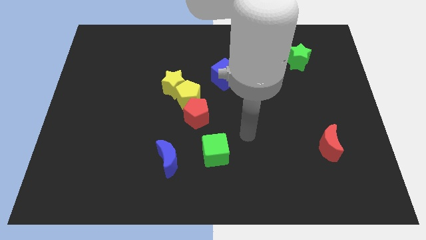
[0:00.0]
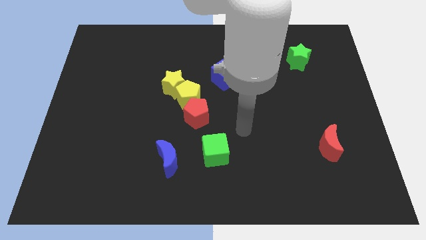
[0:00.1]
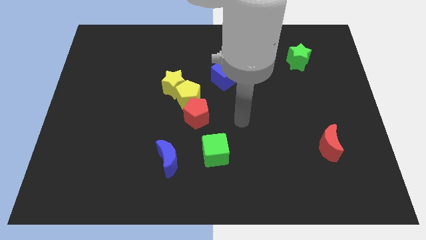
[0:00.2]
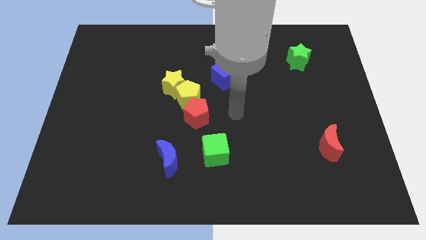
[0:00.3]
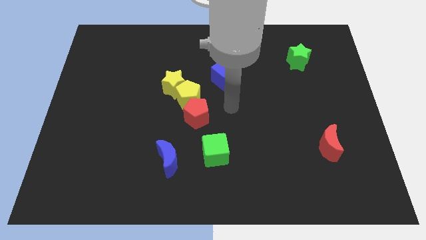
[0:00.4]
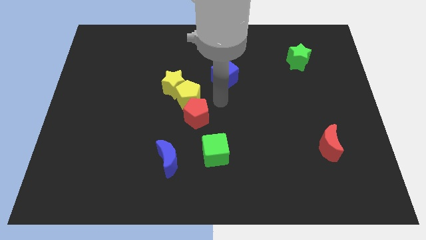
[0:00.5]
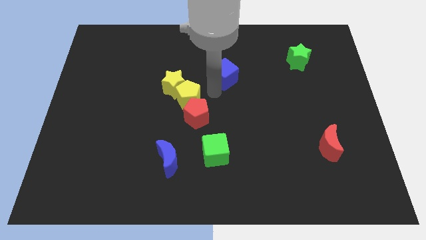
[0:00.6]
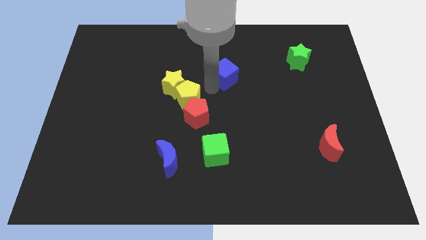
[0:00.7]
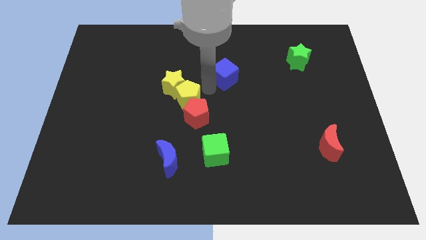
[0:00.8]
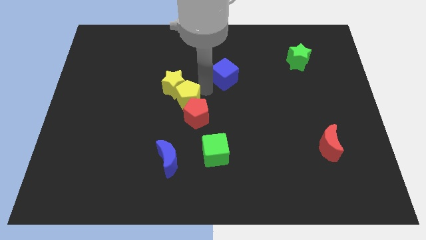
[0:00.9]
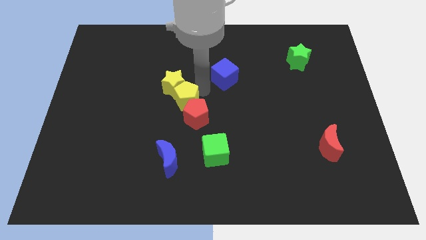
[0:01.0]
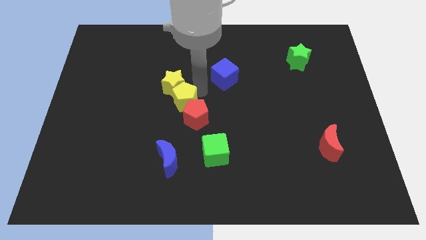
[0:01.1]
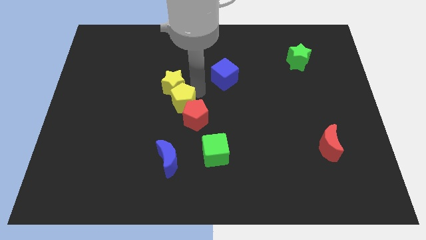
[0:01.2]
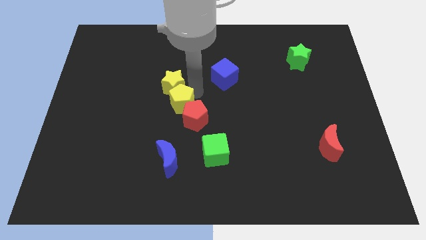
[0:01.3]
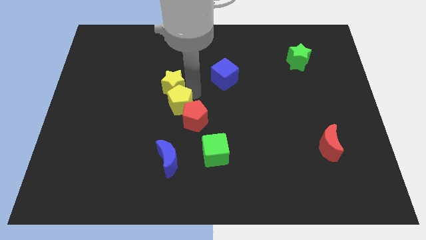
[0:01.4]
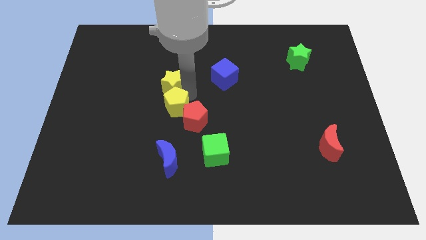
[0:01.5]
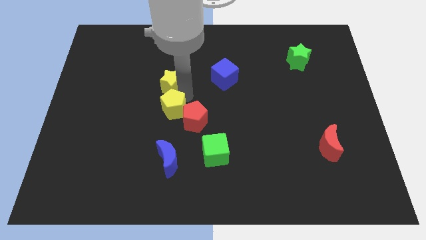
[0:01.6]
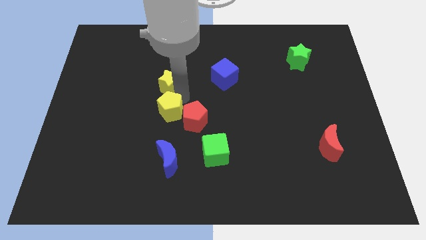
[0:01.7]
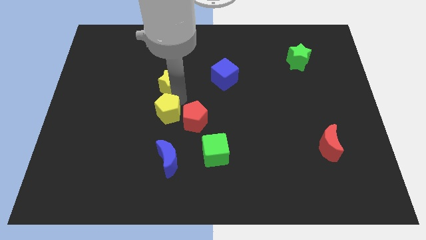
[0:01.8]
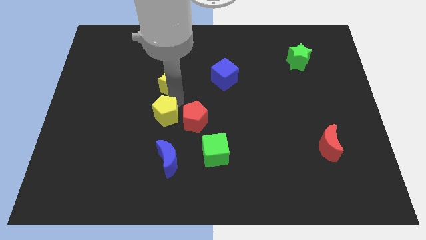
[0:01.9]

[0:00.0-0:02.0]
push the yellow pentagon diagonally down and left a little bit

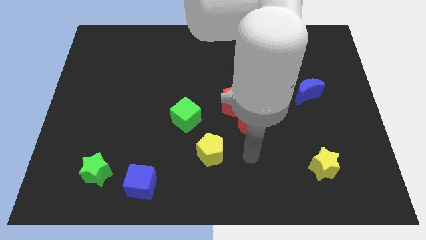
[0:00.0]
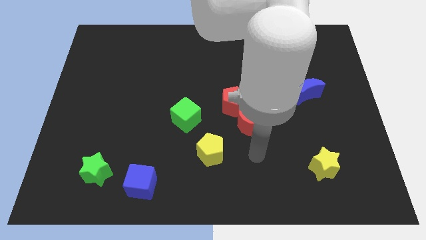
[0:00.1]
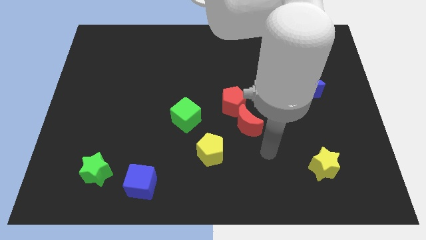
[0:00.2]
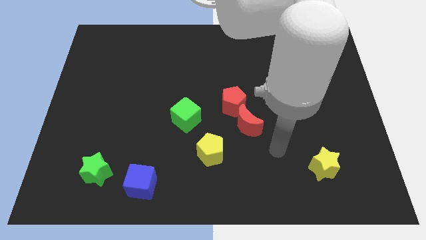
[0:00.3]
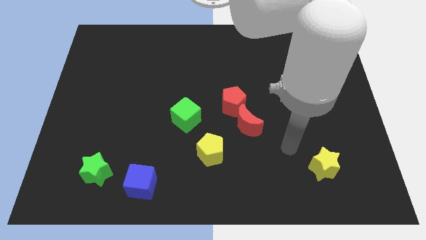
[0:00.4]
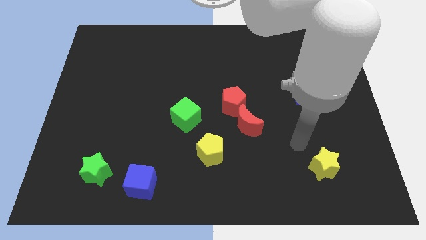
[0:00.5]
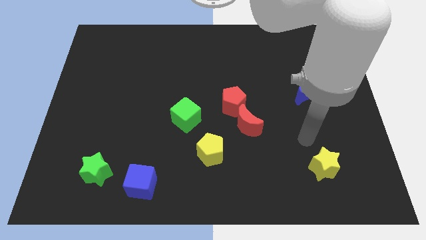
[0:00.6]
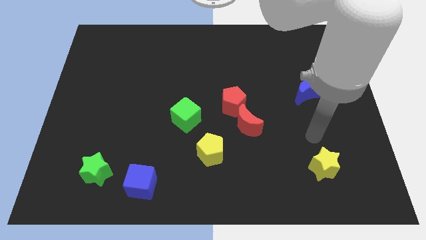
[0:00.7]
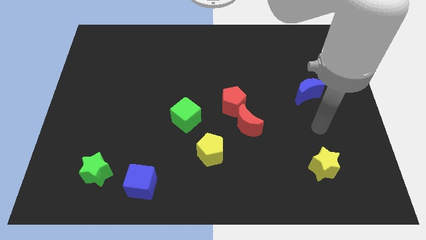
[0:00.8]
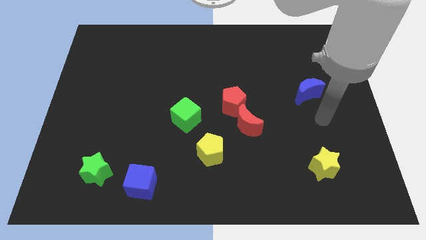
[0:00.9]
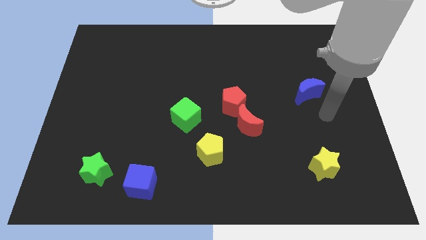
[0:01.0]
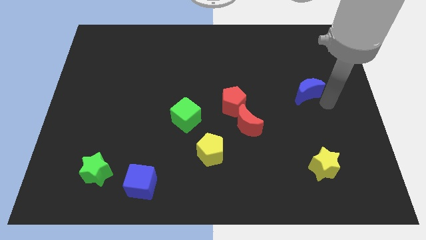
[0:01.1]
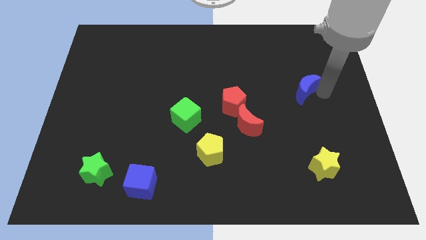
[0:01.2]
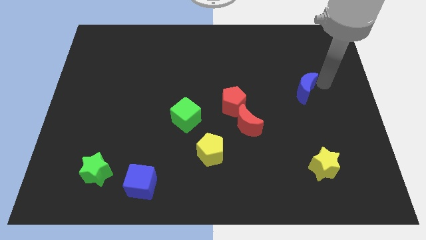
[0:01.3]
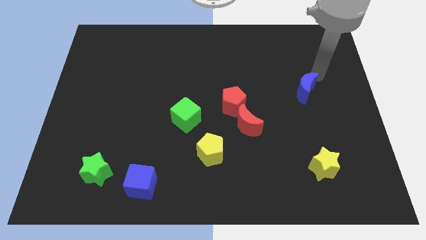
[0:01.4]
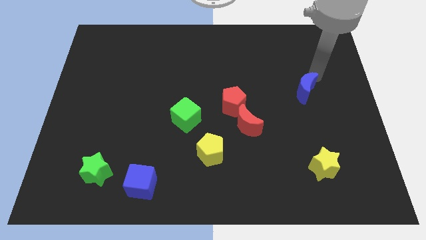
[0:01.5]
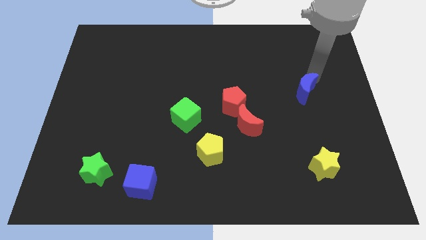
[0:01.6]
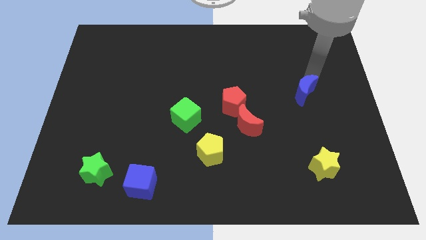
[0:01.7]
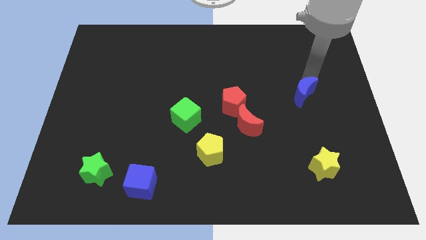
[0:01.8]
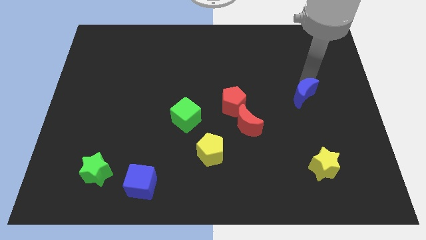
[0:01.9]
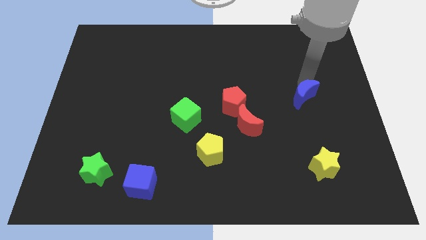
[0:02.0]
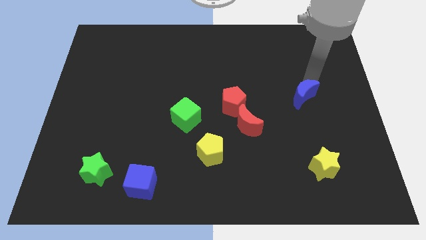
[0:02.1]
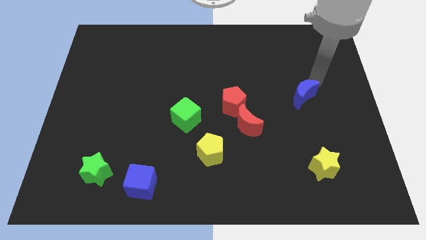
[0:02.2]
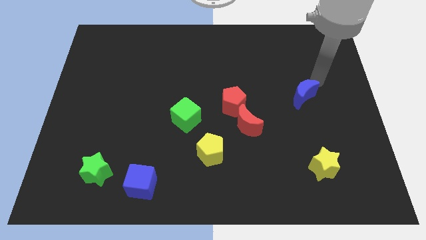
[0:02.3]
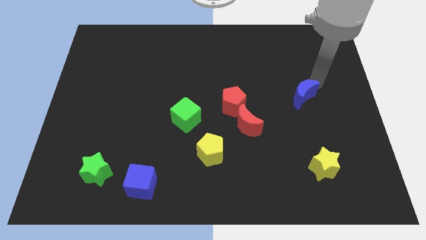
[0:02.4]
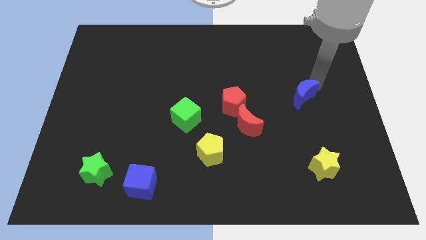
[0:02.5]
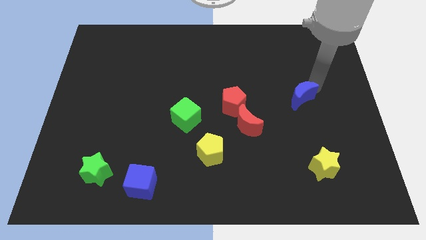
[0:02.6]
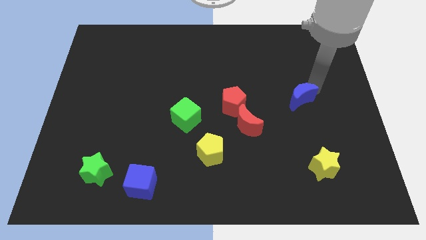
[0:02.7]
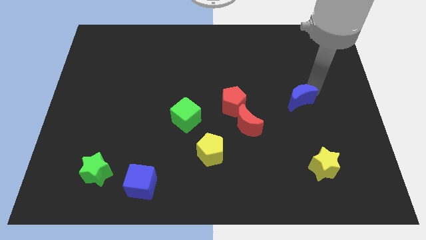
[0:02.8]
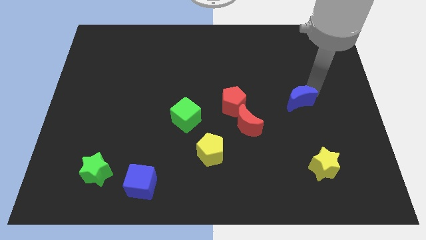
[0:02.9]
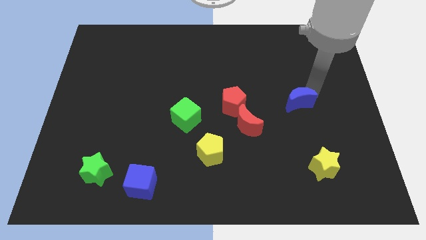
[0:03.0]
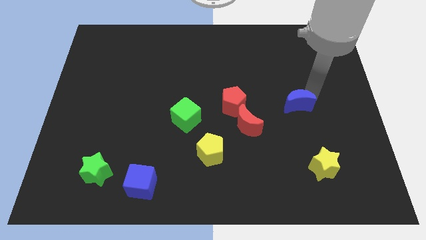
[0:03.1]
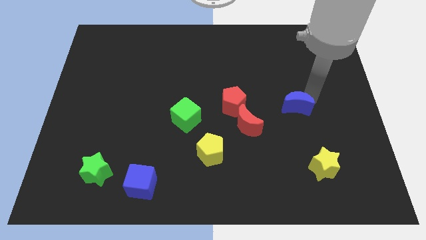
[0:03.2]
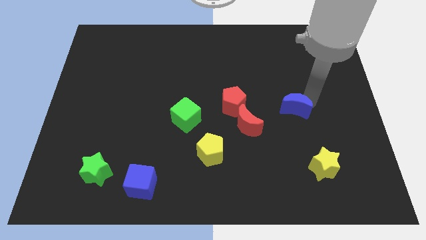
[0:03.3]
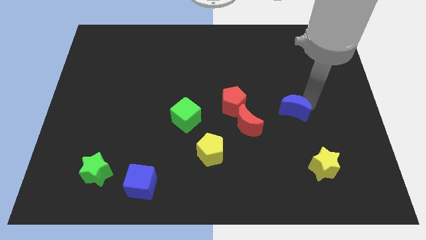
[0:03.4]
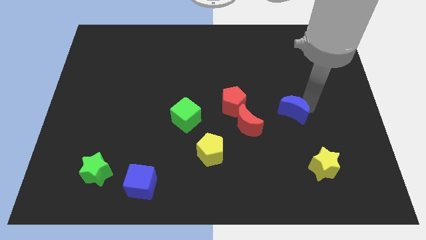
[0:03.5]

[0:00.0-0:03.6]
move the blue moon diagonally downwards and to the left somewhat

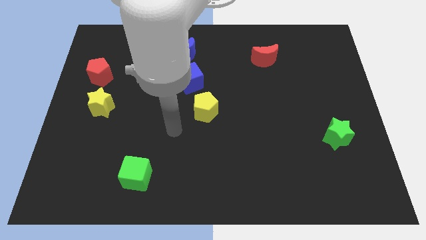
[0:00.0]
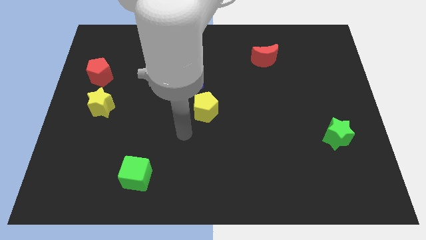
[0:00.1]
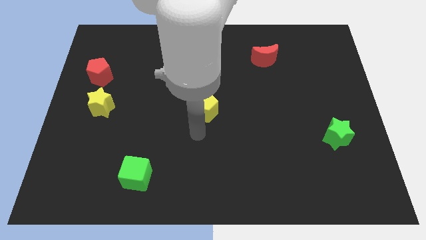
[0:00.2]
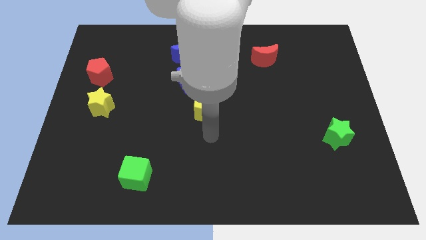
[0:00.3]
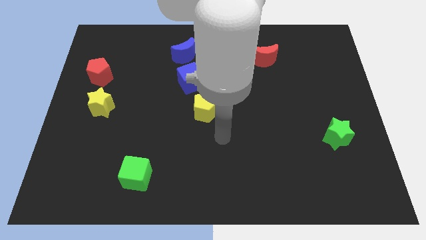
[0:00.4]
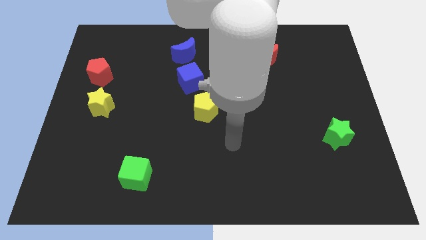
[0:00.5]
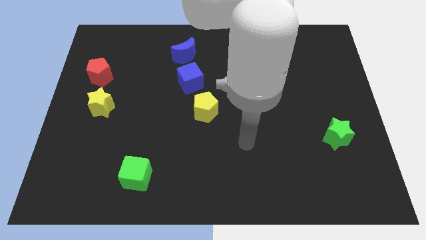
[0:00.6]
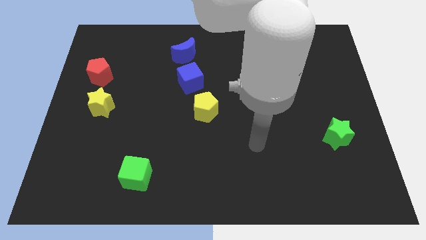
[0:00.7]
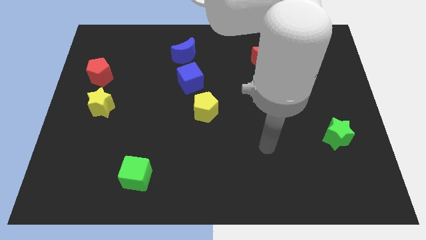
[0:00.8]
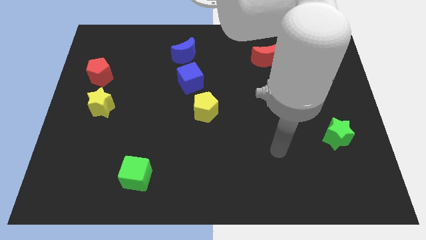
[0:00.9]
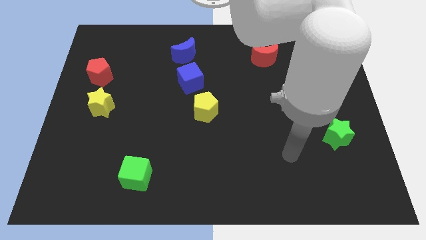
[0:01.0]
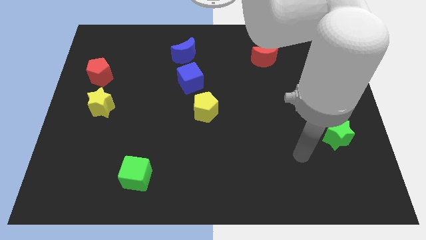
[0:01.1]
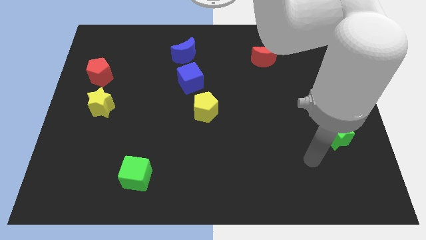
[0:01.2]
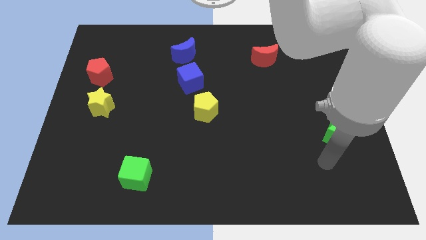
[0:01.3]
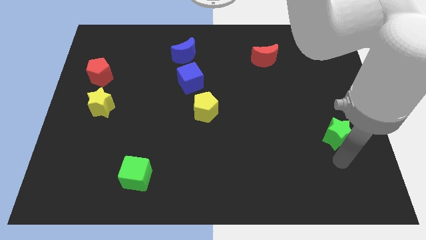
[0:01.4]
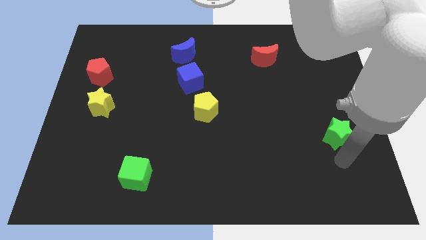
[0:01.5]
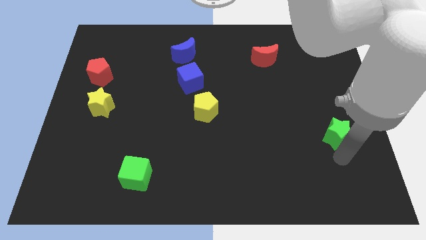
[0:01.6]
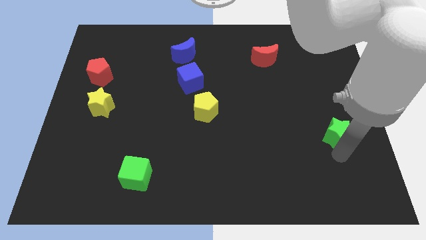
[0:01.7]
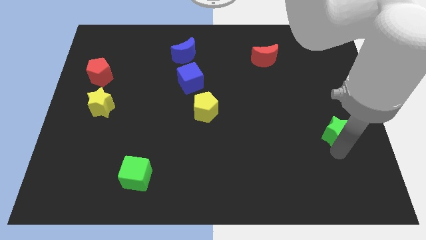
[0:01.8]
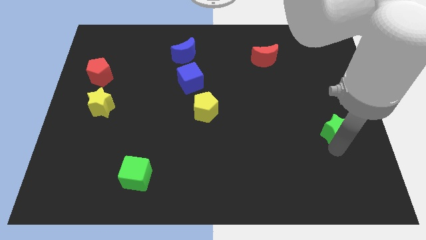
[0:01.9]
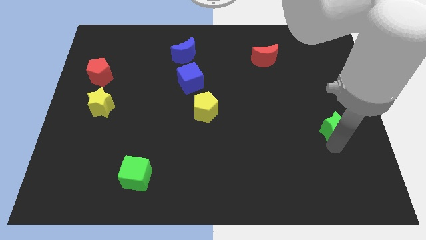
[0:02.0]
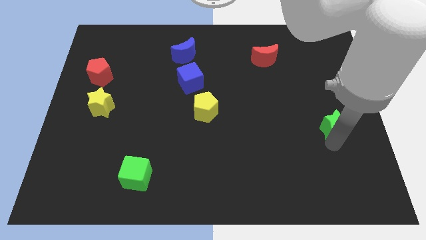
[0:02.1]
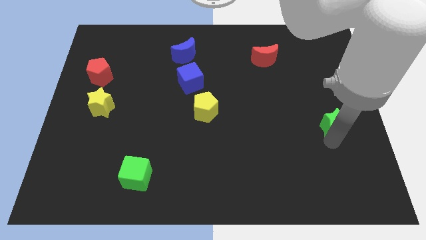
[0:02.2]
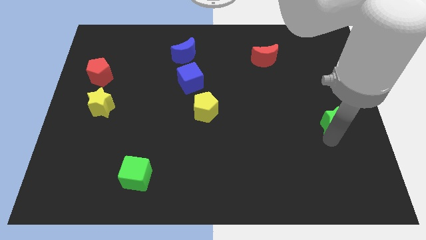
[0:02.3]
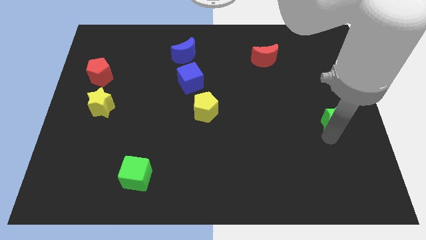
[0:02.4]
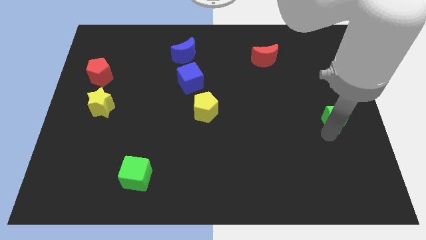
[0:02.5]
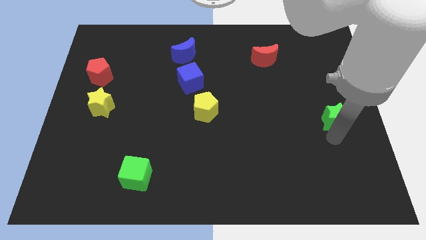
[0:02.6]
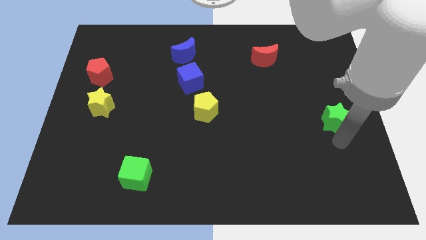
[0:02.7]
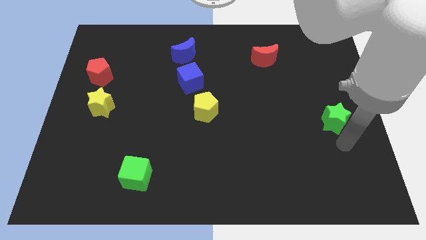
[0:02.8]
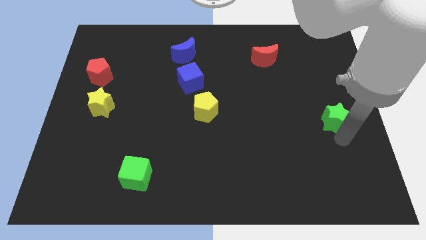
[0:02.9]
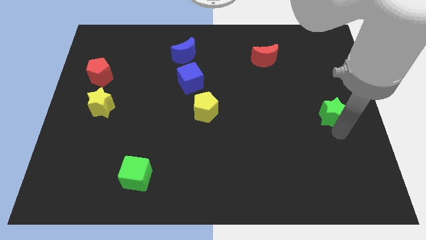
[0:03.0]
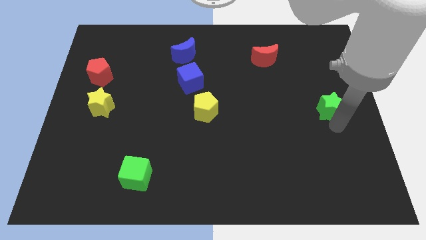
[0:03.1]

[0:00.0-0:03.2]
slightly push the green star up
